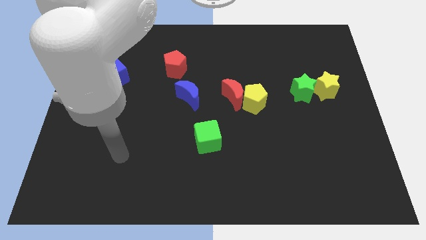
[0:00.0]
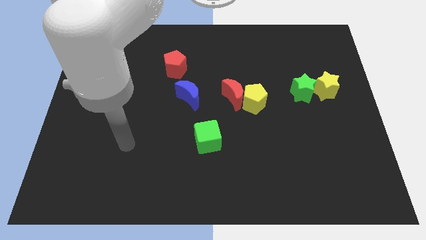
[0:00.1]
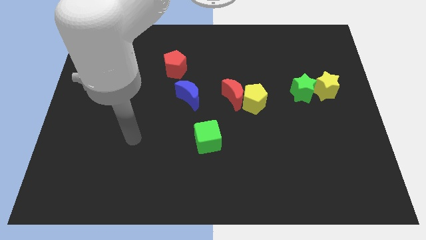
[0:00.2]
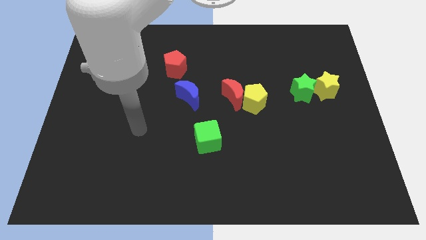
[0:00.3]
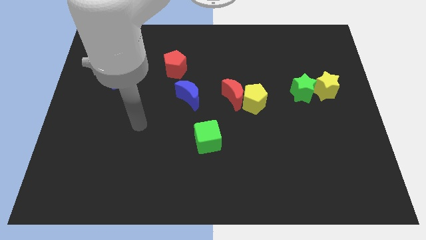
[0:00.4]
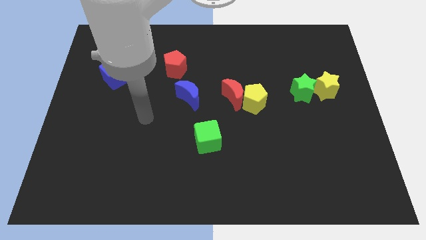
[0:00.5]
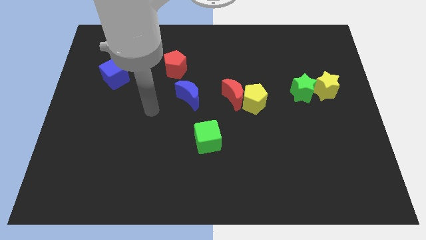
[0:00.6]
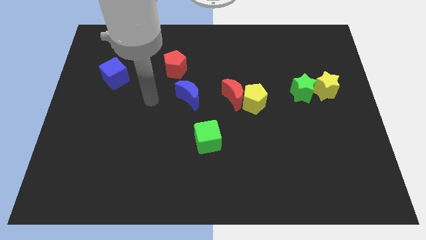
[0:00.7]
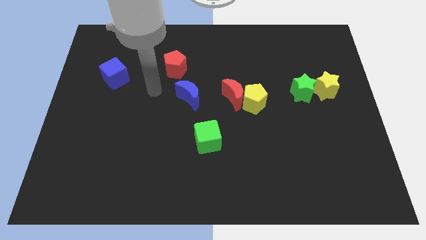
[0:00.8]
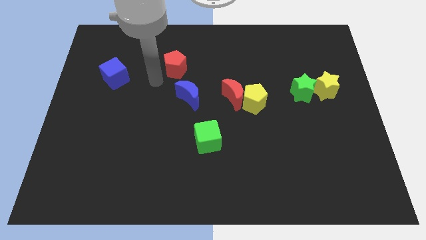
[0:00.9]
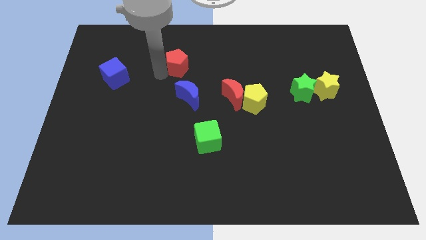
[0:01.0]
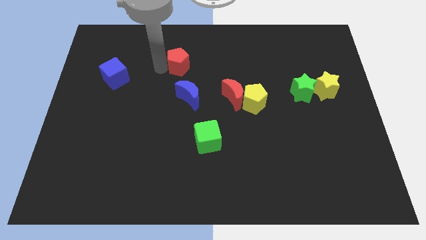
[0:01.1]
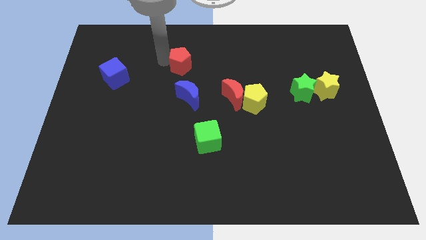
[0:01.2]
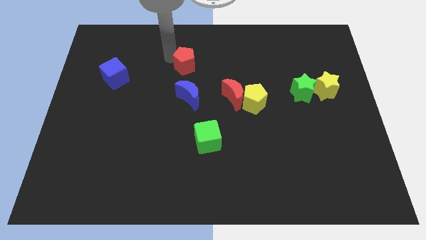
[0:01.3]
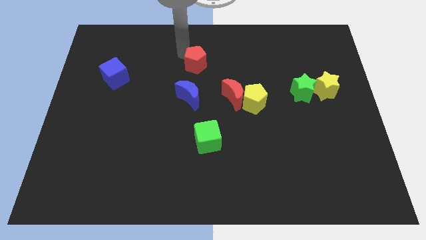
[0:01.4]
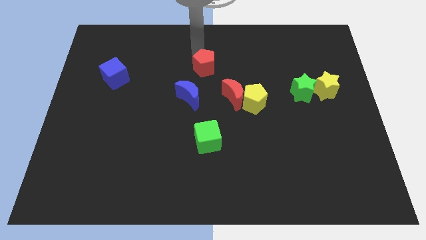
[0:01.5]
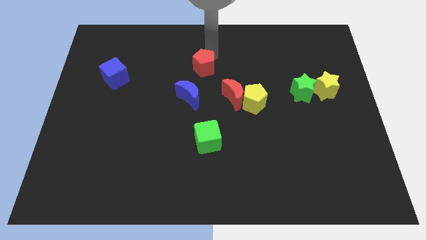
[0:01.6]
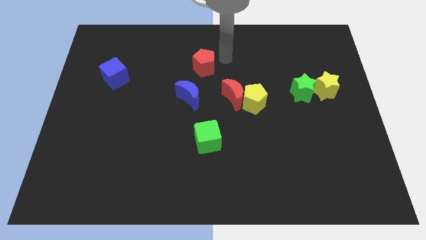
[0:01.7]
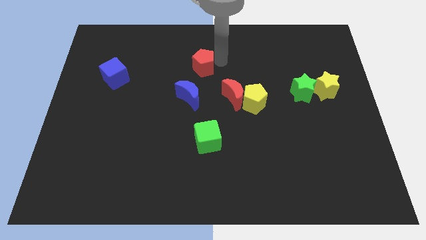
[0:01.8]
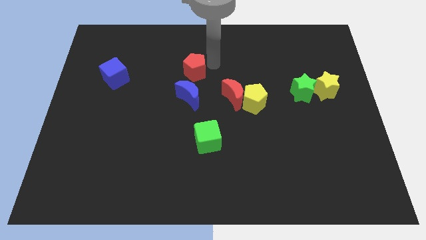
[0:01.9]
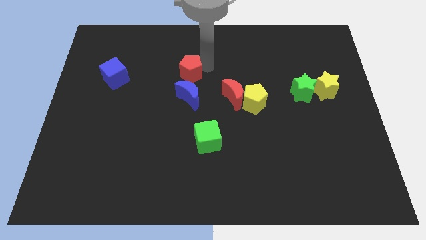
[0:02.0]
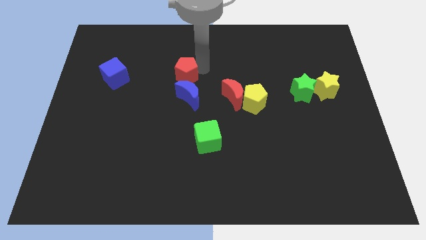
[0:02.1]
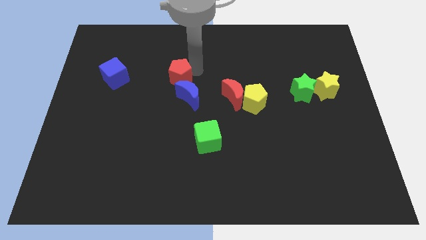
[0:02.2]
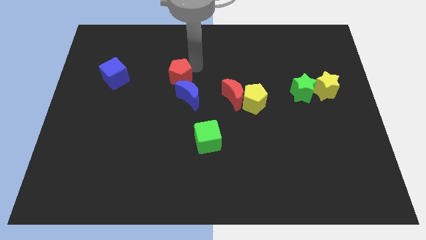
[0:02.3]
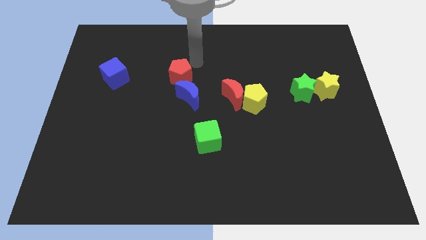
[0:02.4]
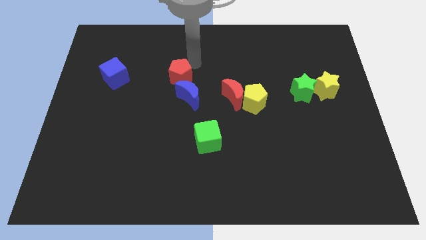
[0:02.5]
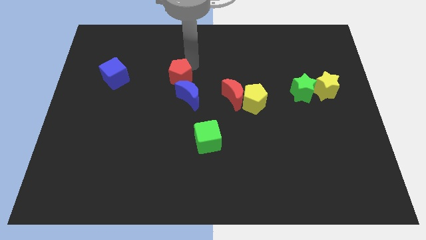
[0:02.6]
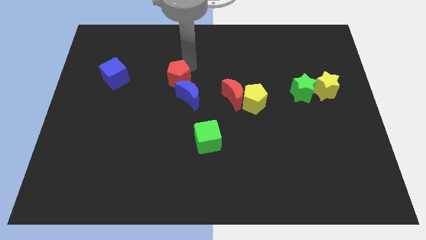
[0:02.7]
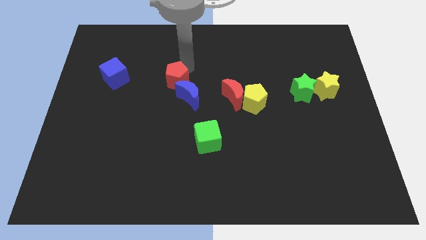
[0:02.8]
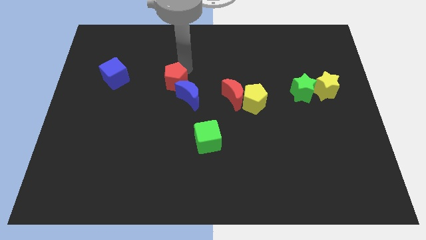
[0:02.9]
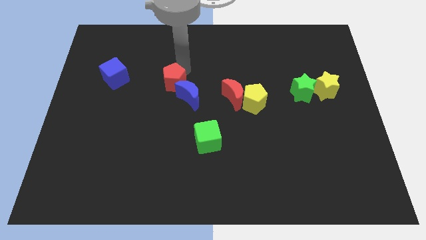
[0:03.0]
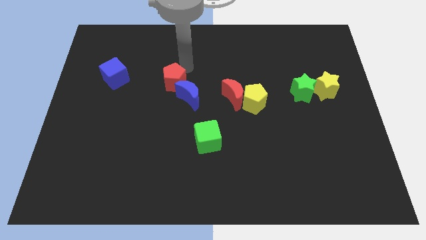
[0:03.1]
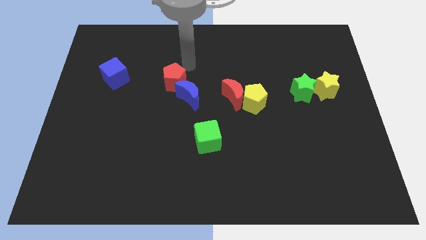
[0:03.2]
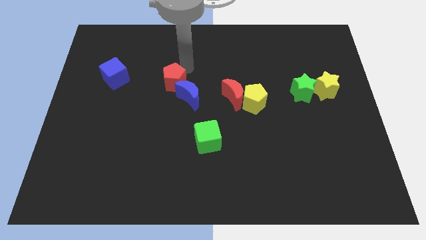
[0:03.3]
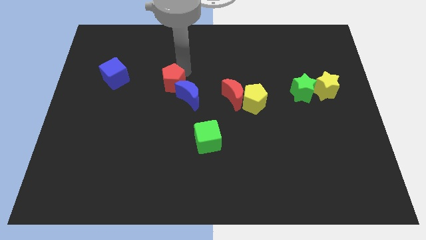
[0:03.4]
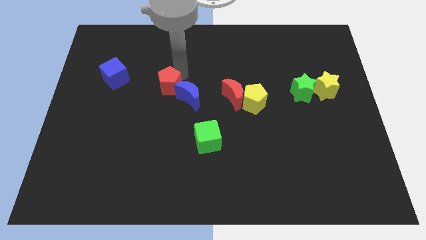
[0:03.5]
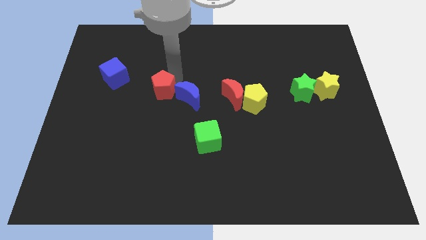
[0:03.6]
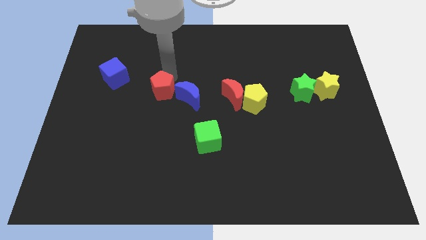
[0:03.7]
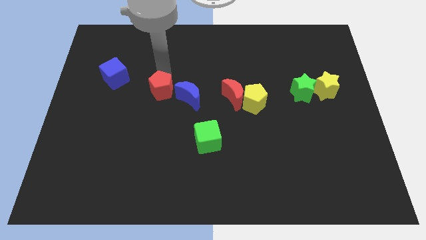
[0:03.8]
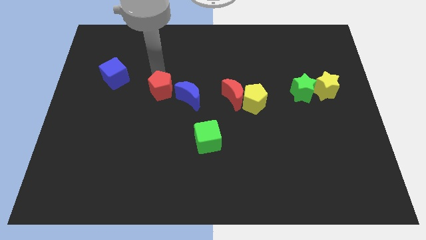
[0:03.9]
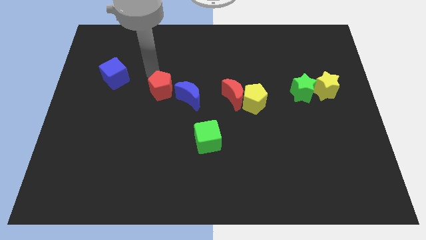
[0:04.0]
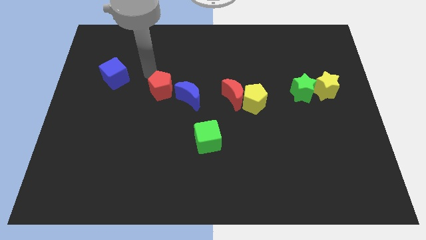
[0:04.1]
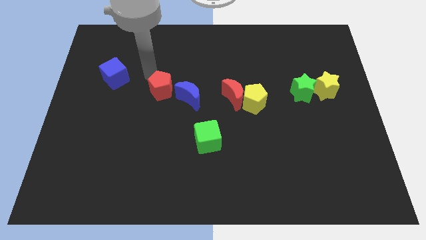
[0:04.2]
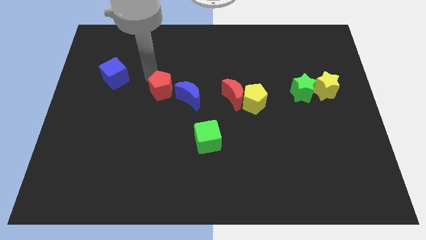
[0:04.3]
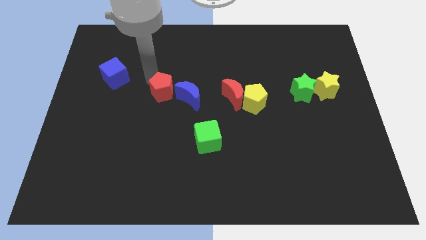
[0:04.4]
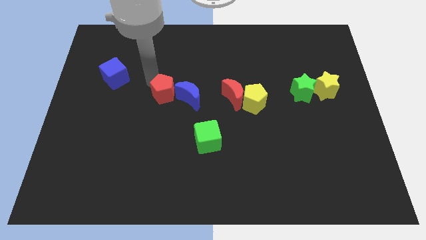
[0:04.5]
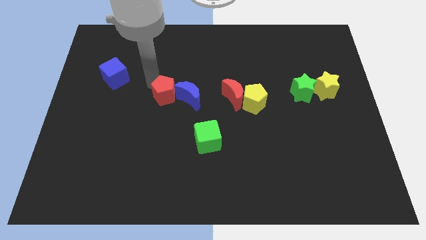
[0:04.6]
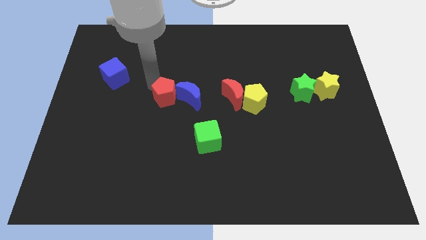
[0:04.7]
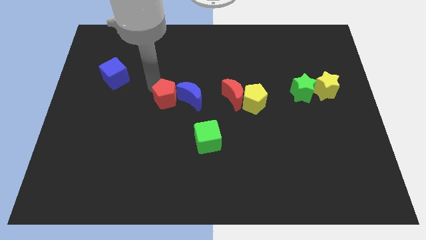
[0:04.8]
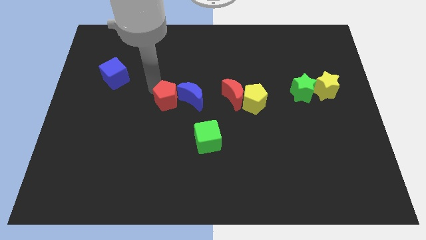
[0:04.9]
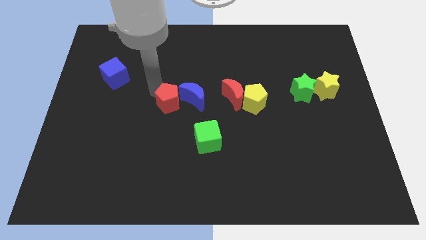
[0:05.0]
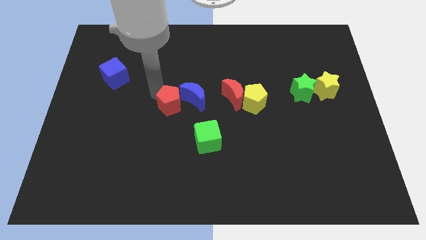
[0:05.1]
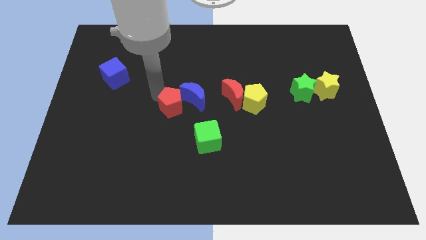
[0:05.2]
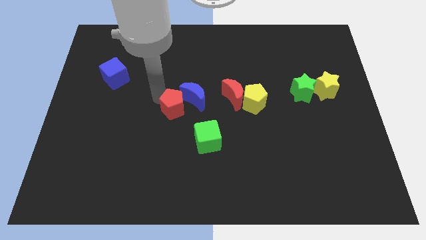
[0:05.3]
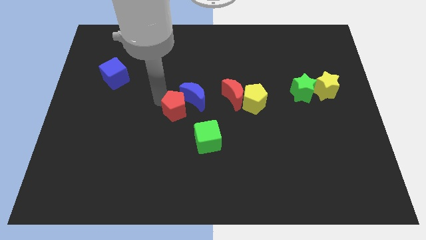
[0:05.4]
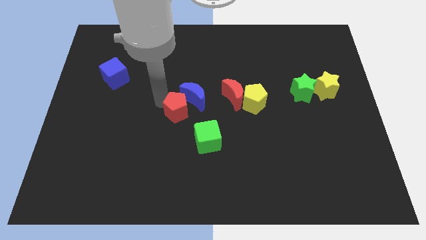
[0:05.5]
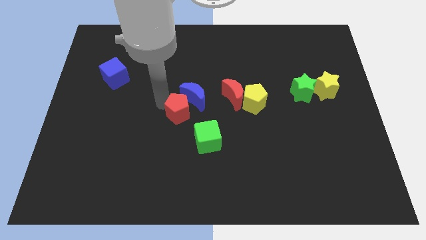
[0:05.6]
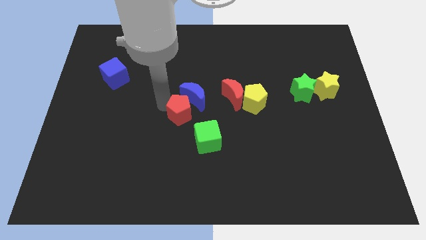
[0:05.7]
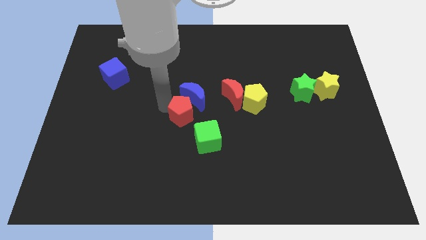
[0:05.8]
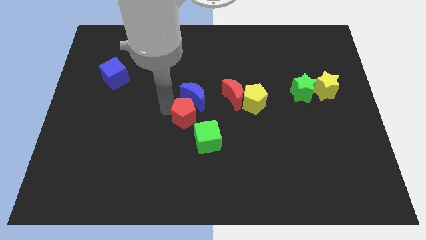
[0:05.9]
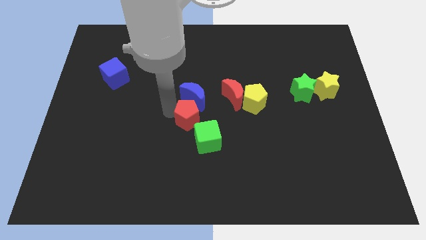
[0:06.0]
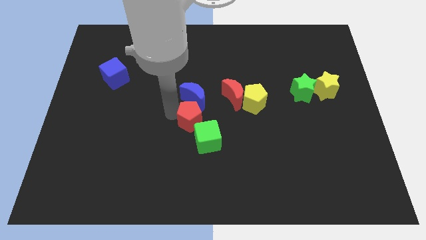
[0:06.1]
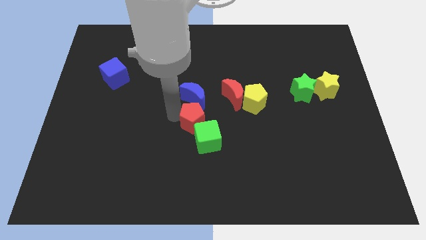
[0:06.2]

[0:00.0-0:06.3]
put the red pentagon next to the green cube

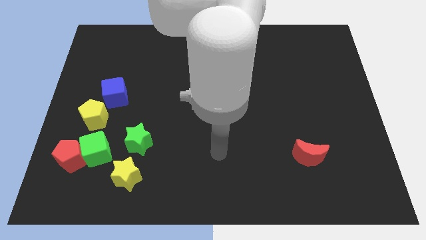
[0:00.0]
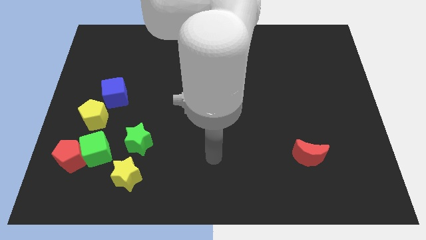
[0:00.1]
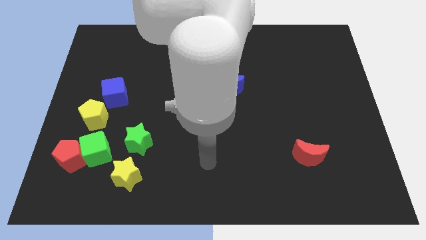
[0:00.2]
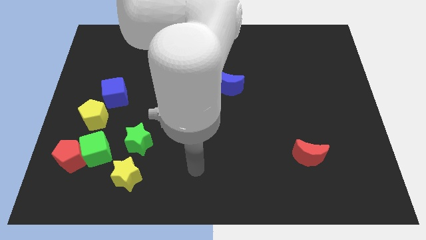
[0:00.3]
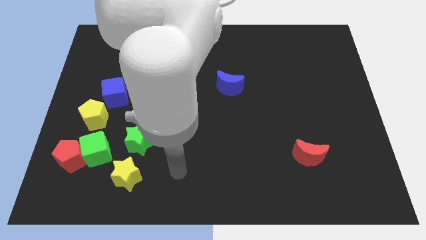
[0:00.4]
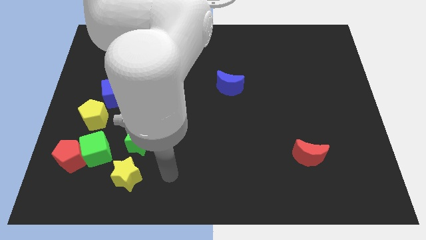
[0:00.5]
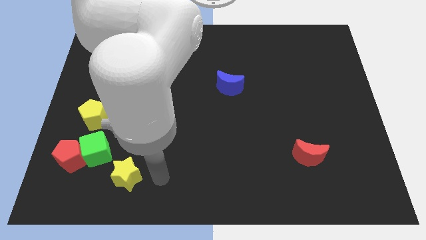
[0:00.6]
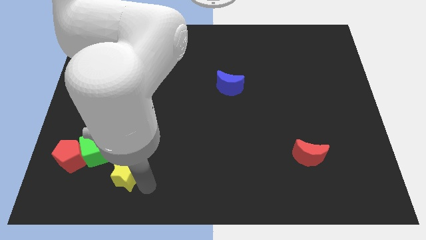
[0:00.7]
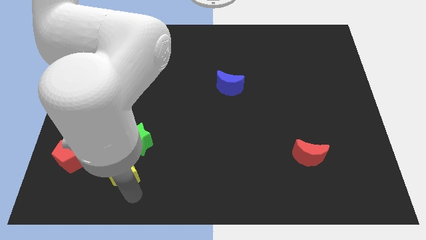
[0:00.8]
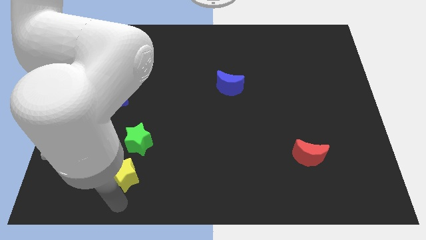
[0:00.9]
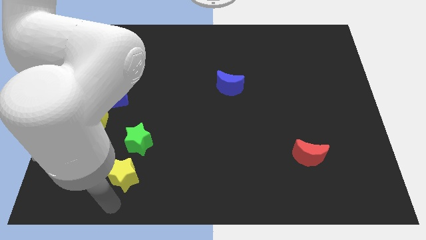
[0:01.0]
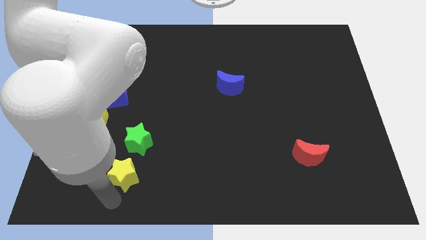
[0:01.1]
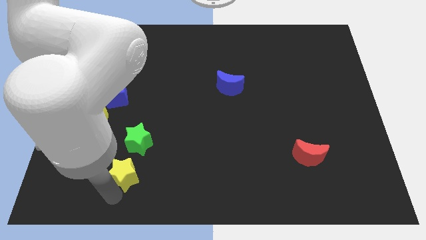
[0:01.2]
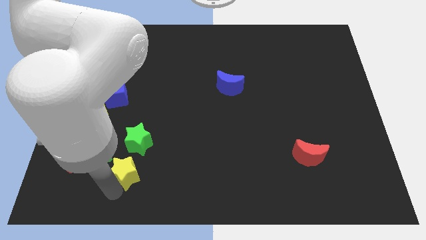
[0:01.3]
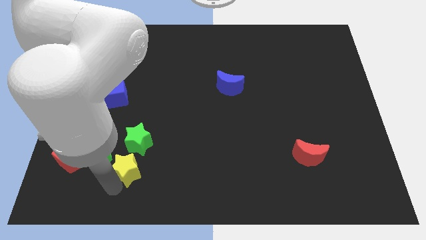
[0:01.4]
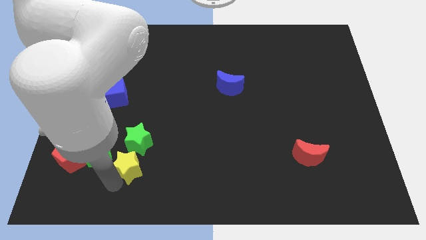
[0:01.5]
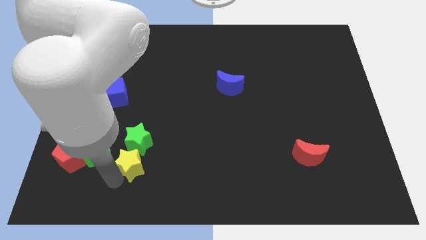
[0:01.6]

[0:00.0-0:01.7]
slide the yellow star towards the green star
